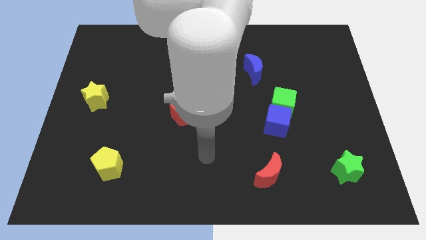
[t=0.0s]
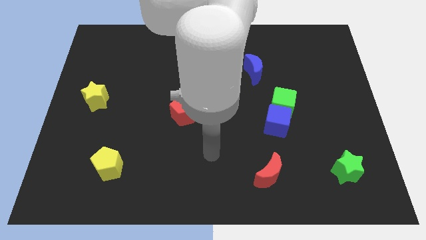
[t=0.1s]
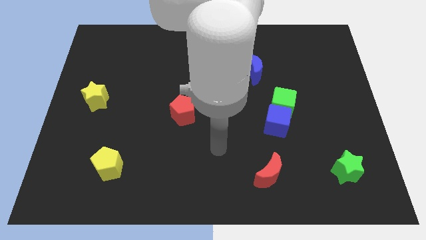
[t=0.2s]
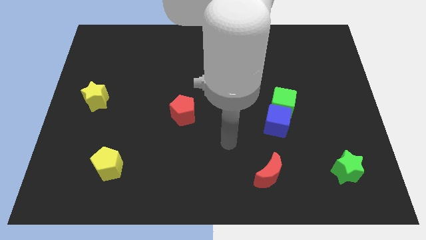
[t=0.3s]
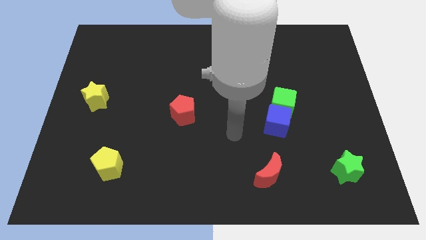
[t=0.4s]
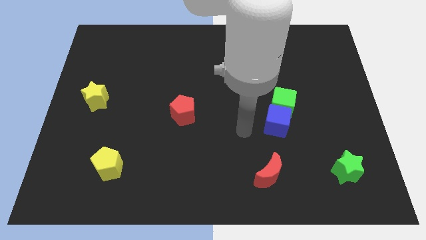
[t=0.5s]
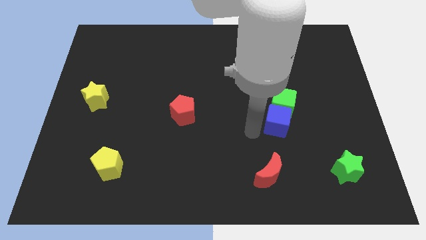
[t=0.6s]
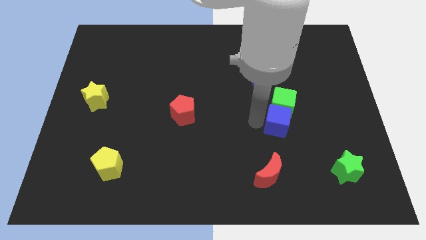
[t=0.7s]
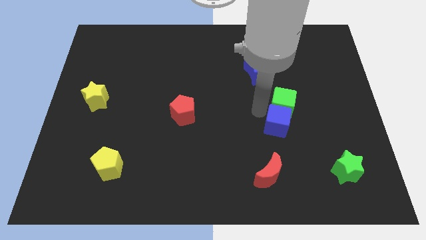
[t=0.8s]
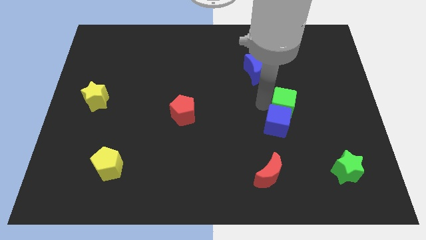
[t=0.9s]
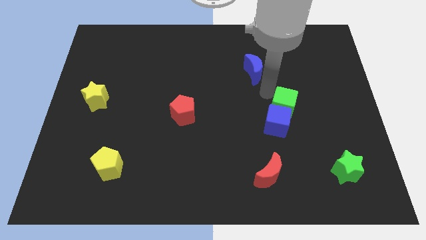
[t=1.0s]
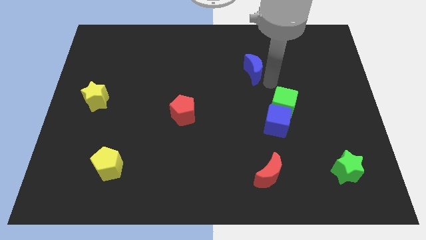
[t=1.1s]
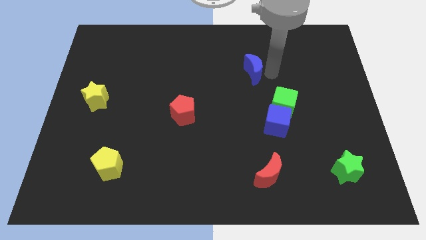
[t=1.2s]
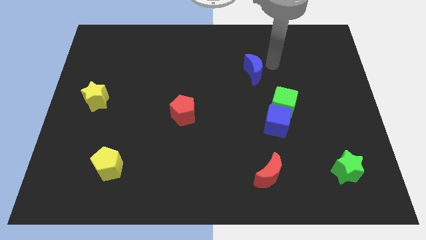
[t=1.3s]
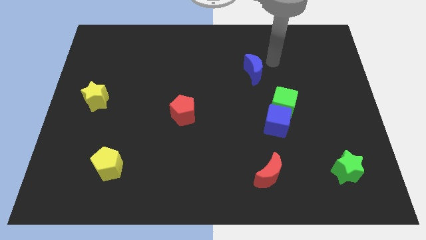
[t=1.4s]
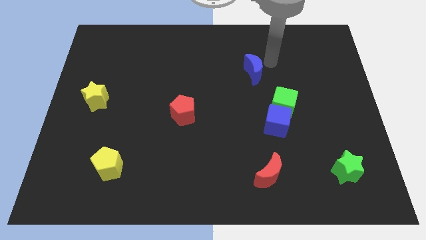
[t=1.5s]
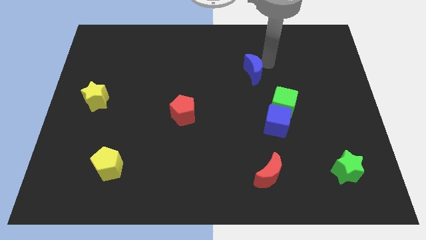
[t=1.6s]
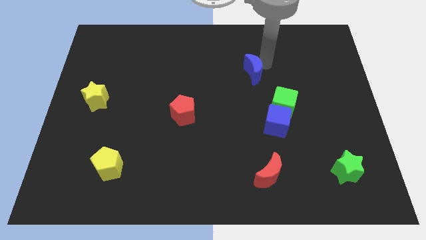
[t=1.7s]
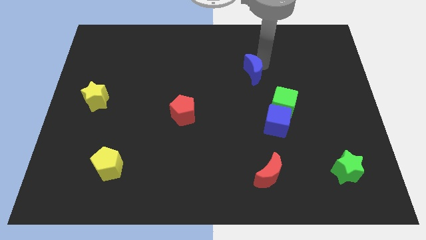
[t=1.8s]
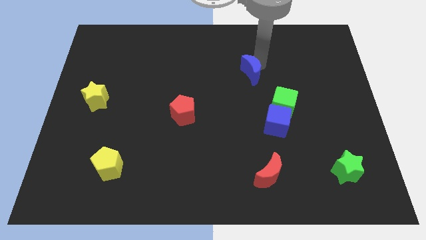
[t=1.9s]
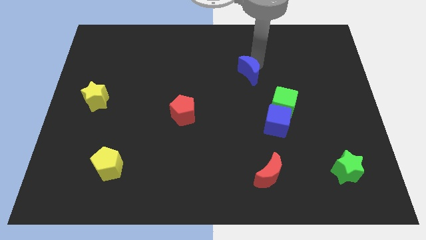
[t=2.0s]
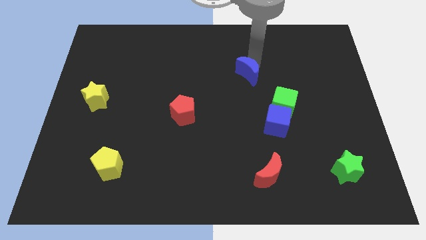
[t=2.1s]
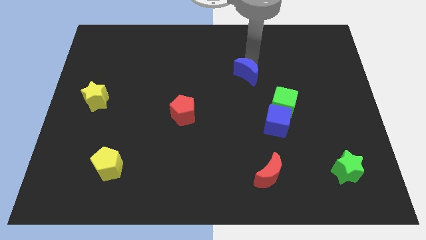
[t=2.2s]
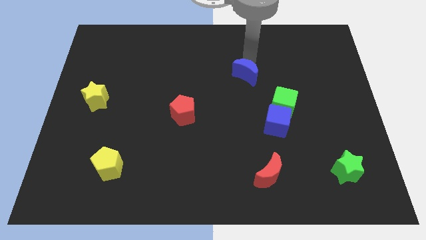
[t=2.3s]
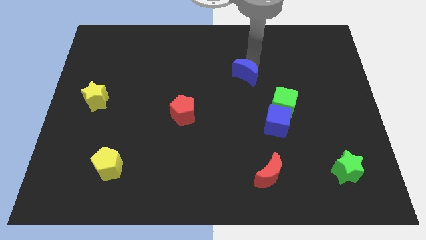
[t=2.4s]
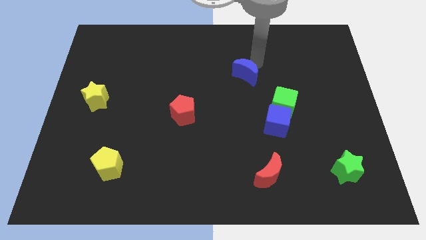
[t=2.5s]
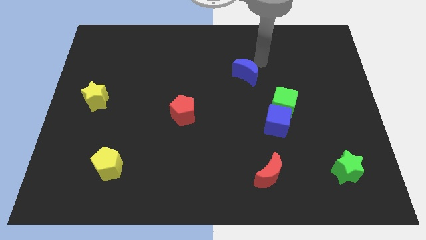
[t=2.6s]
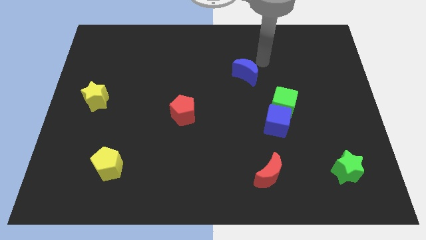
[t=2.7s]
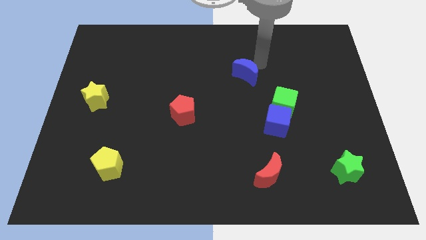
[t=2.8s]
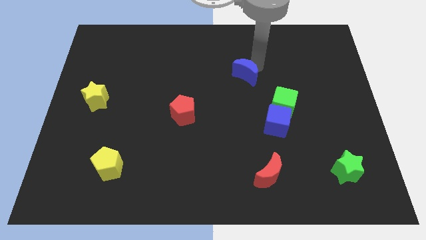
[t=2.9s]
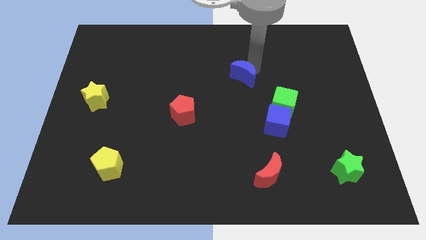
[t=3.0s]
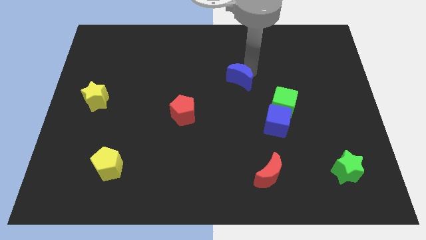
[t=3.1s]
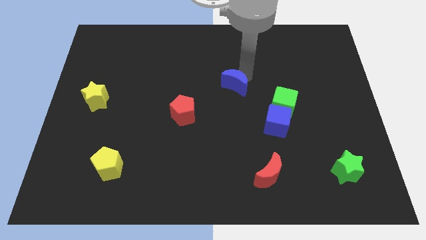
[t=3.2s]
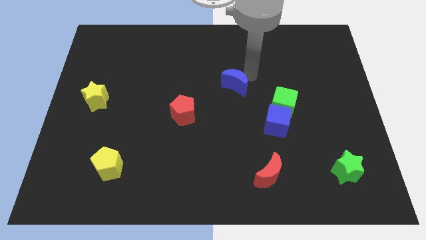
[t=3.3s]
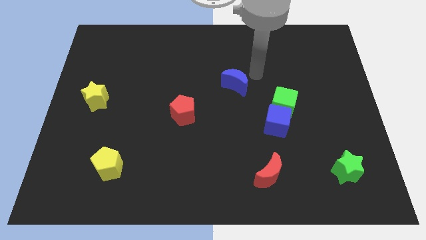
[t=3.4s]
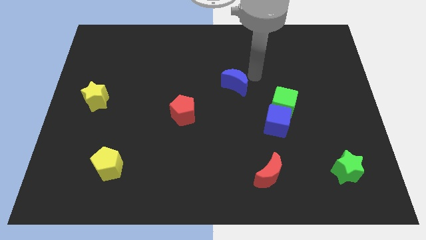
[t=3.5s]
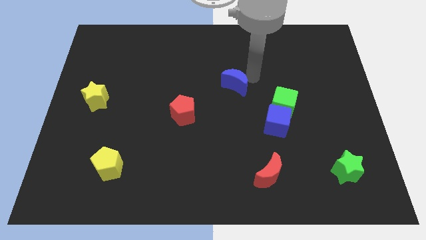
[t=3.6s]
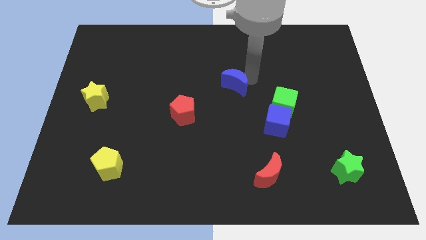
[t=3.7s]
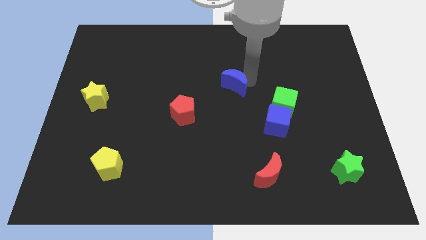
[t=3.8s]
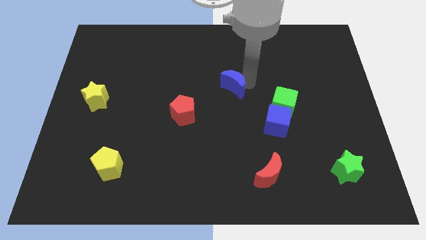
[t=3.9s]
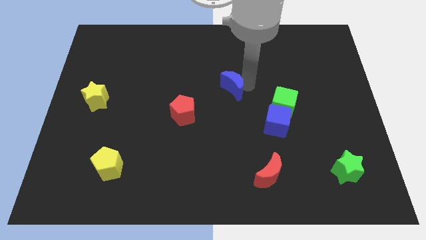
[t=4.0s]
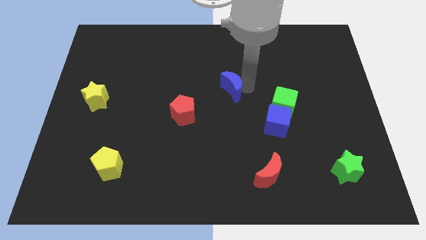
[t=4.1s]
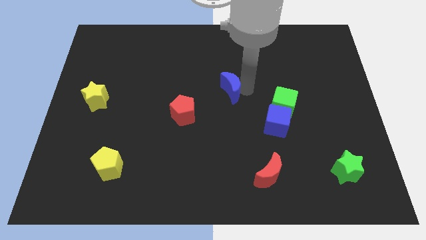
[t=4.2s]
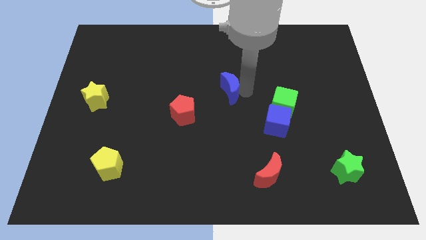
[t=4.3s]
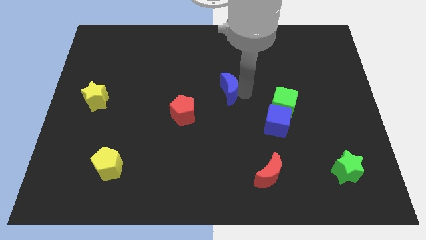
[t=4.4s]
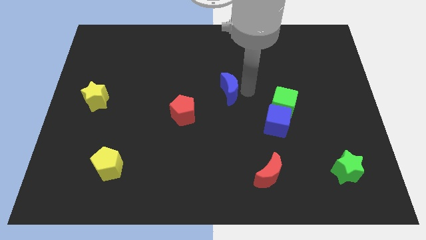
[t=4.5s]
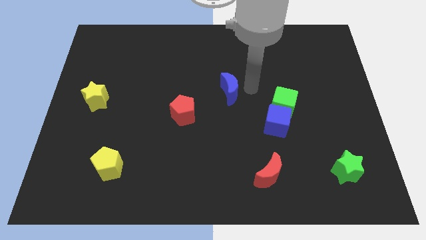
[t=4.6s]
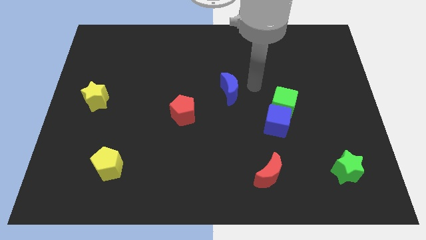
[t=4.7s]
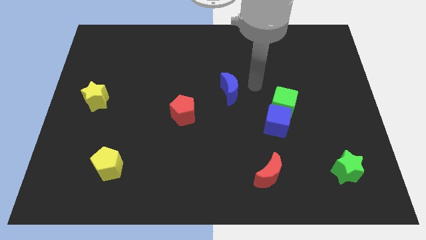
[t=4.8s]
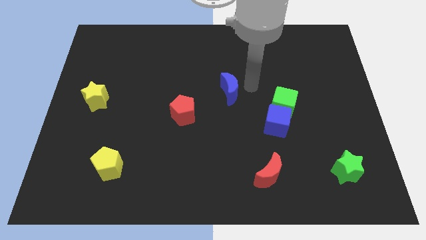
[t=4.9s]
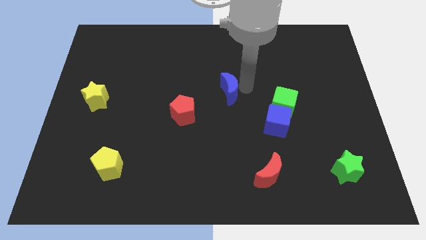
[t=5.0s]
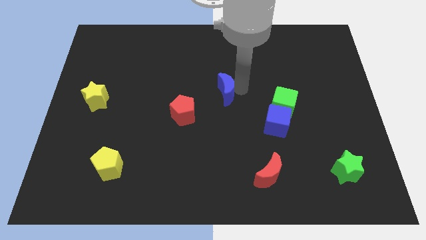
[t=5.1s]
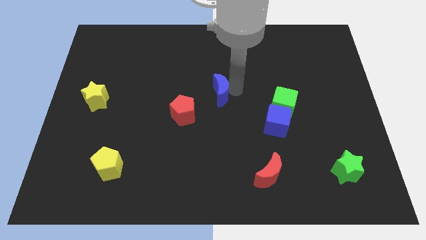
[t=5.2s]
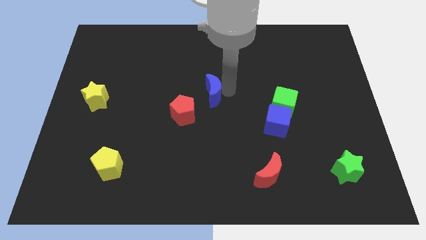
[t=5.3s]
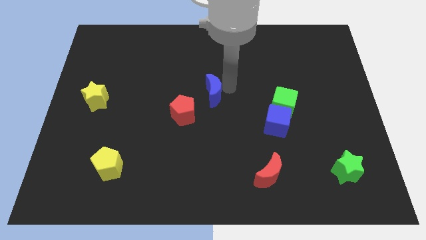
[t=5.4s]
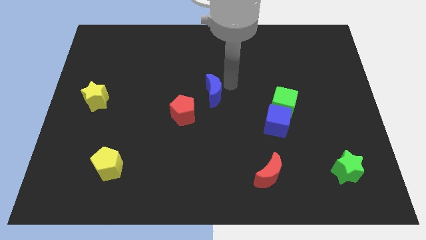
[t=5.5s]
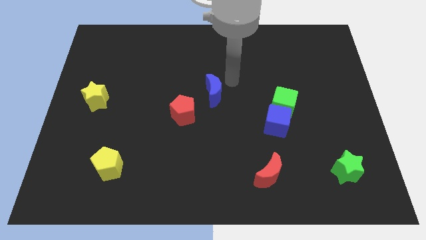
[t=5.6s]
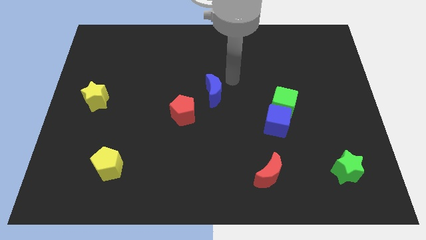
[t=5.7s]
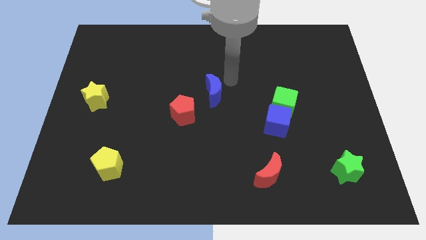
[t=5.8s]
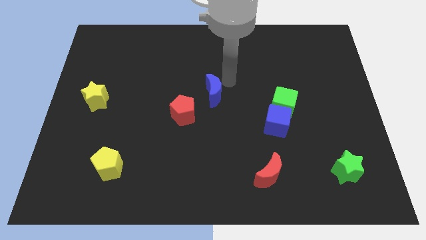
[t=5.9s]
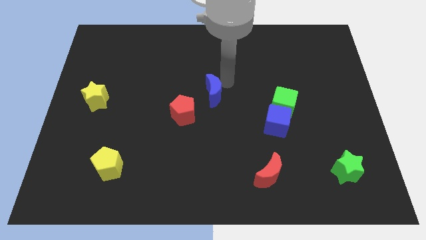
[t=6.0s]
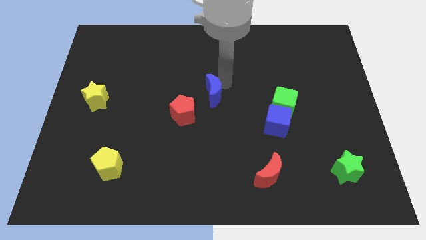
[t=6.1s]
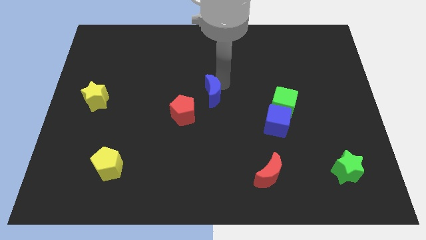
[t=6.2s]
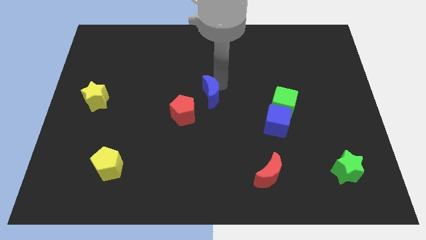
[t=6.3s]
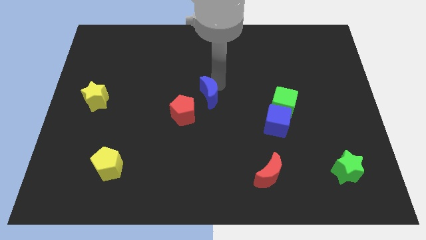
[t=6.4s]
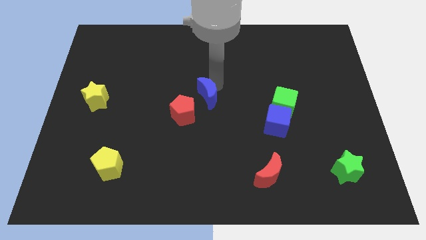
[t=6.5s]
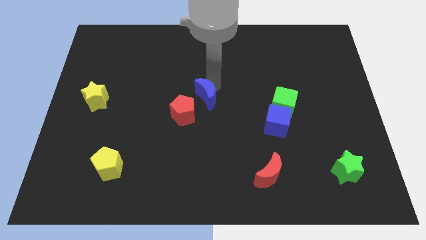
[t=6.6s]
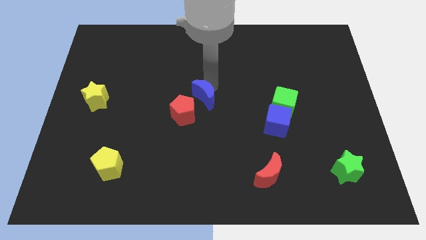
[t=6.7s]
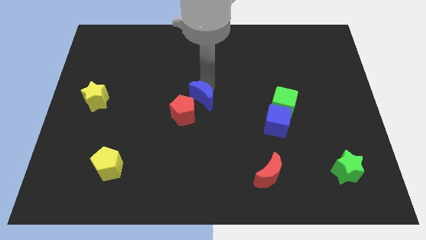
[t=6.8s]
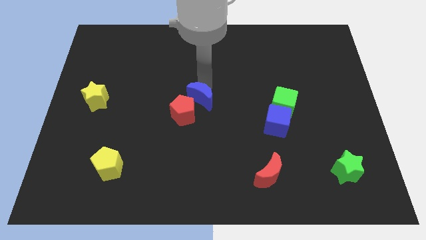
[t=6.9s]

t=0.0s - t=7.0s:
push the blue moon close to the red pentagon

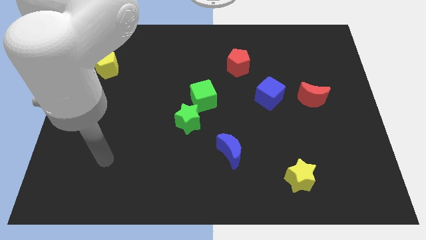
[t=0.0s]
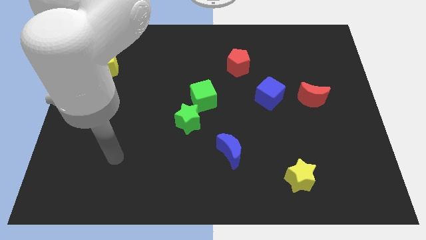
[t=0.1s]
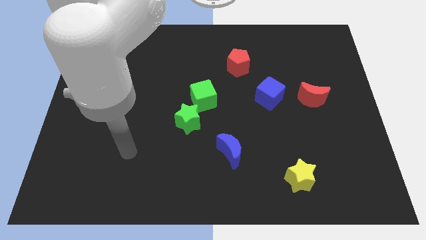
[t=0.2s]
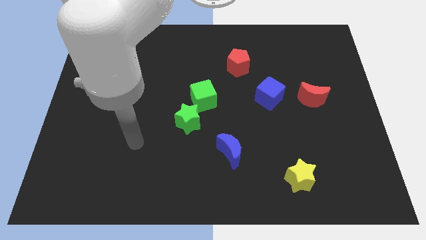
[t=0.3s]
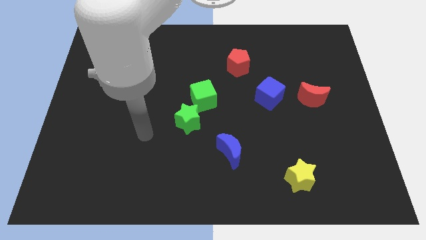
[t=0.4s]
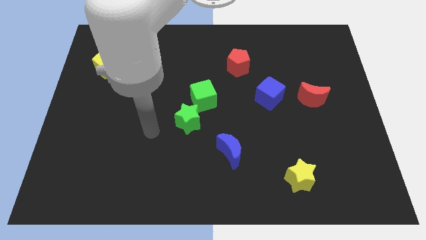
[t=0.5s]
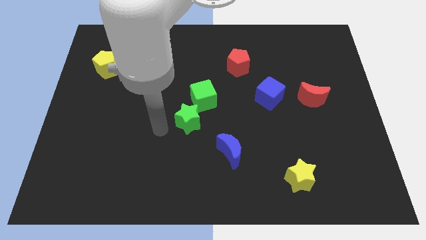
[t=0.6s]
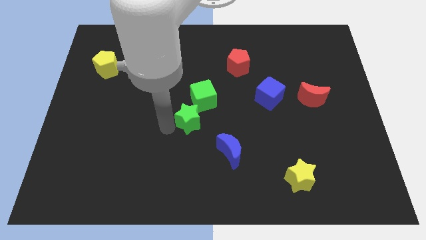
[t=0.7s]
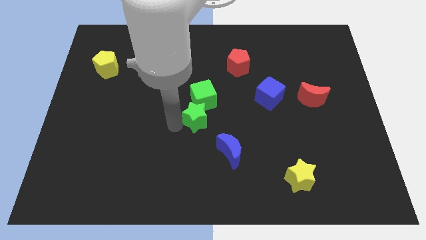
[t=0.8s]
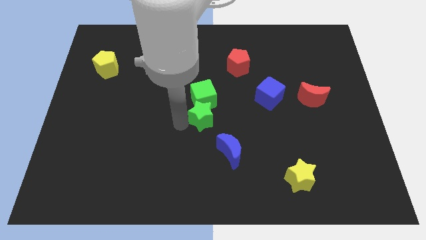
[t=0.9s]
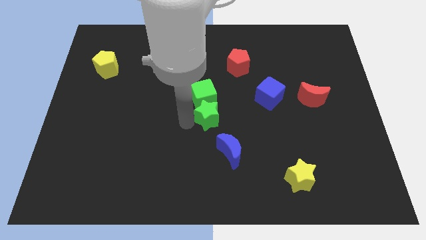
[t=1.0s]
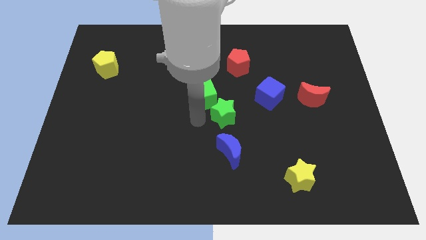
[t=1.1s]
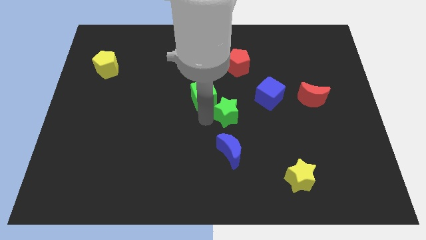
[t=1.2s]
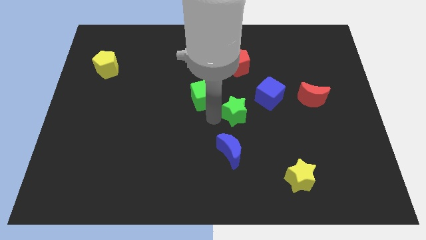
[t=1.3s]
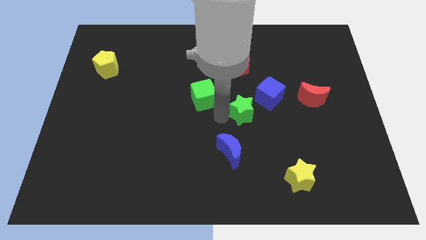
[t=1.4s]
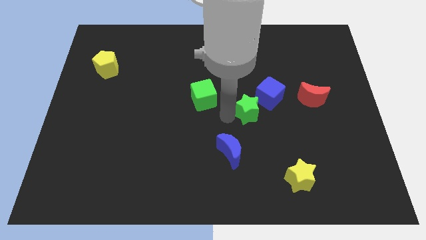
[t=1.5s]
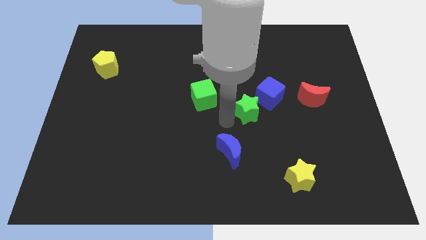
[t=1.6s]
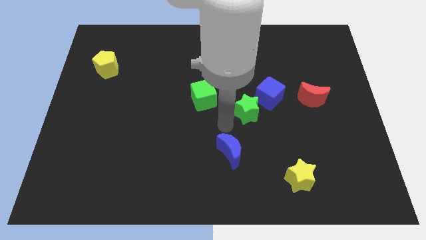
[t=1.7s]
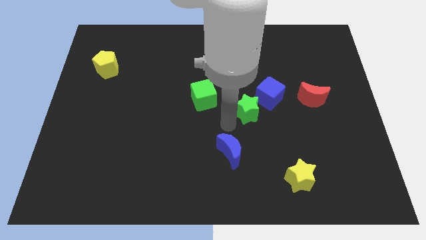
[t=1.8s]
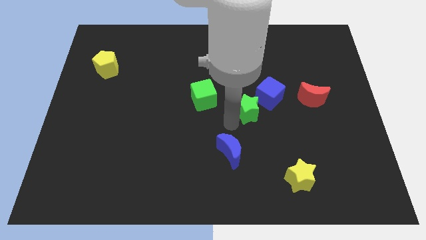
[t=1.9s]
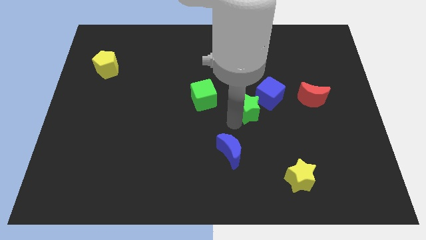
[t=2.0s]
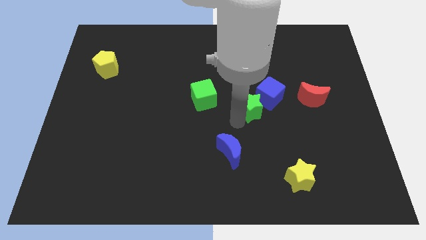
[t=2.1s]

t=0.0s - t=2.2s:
push the green star to the blue cube
